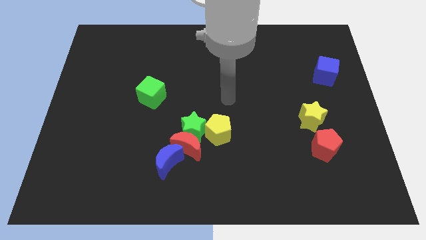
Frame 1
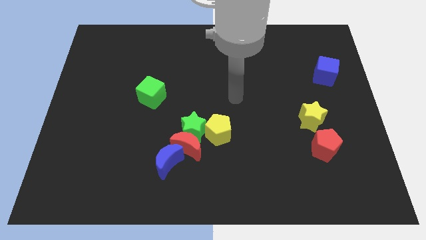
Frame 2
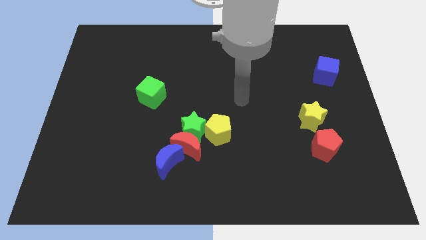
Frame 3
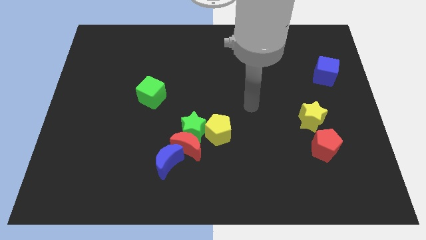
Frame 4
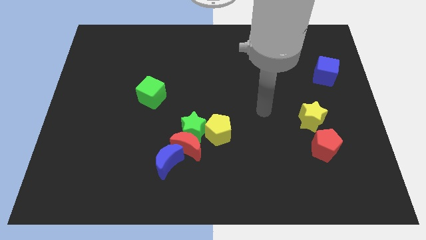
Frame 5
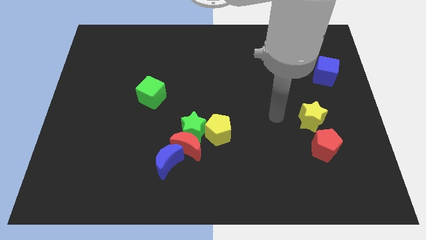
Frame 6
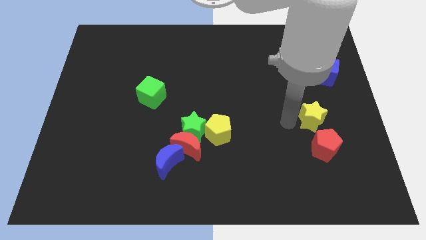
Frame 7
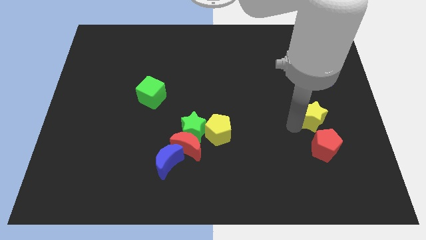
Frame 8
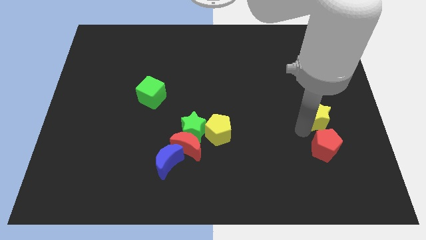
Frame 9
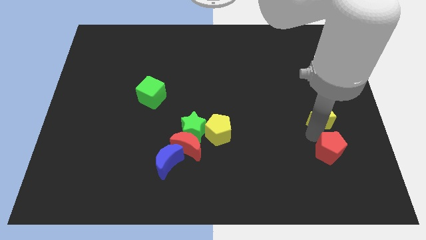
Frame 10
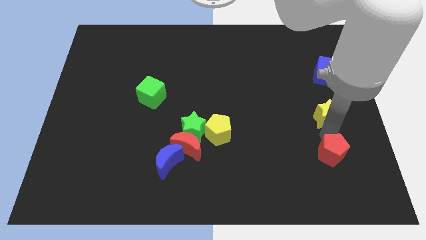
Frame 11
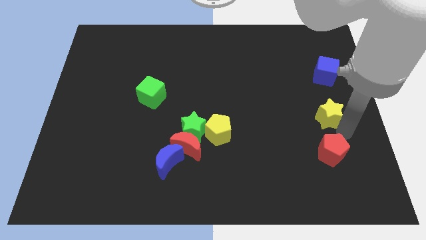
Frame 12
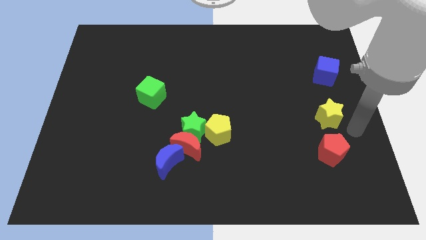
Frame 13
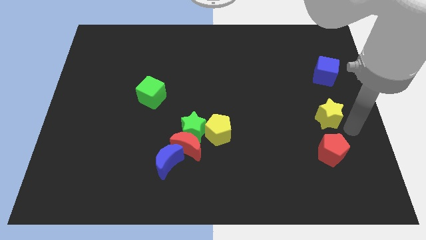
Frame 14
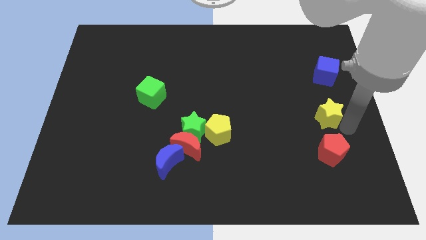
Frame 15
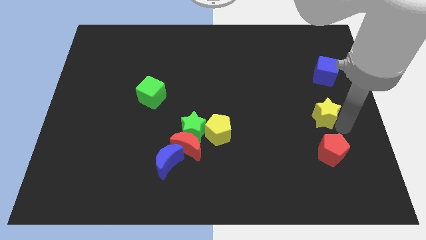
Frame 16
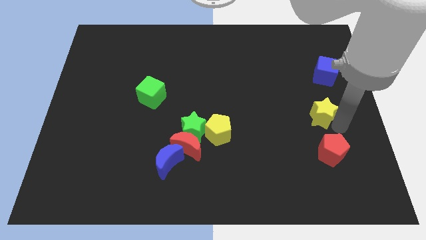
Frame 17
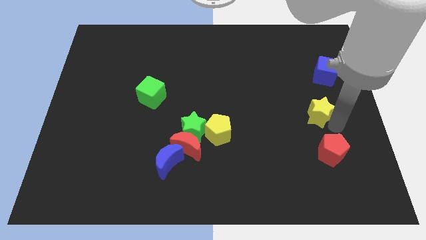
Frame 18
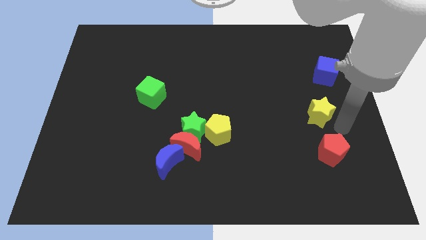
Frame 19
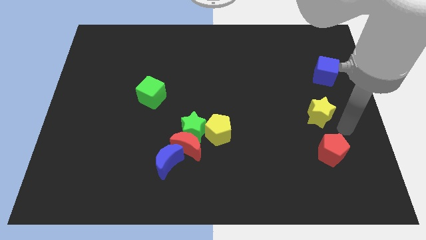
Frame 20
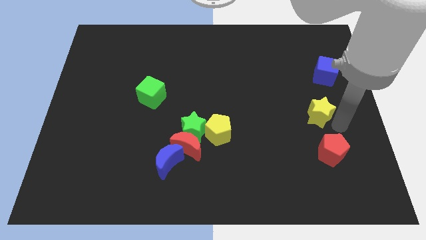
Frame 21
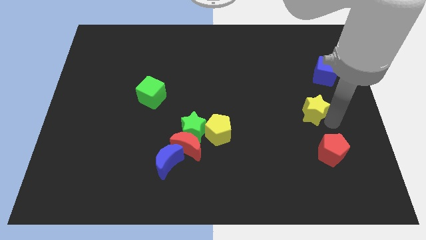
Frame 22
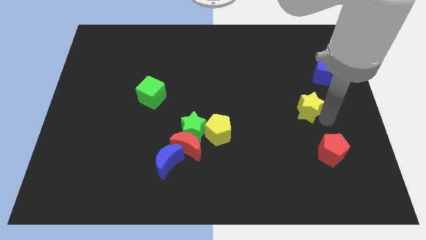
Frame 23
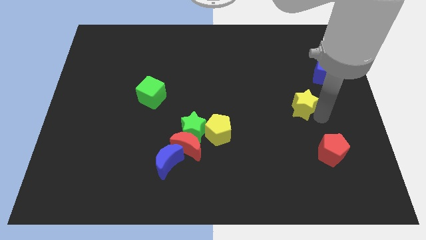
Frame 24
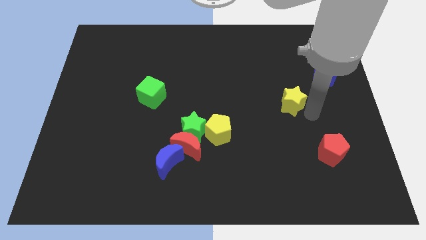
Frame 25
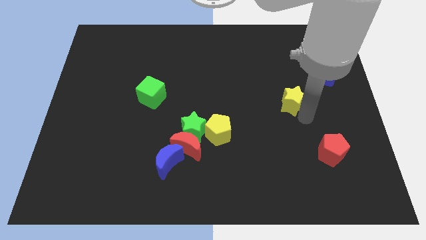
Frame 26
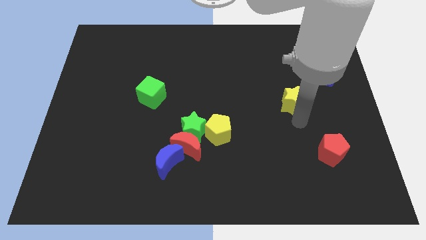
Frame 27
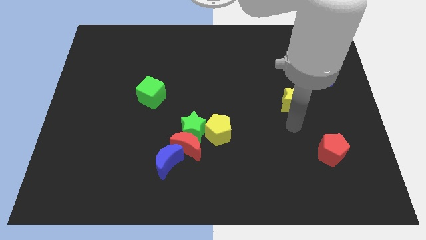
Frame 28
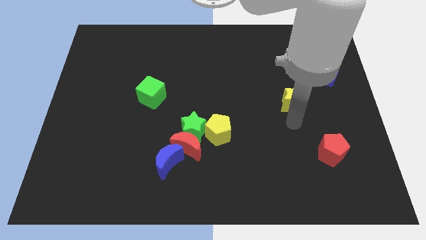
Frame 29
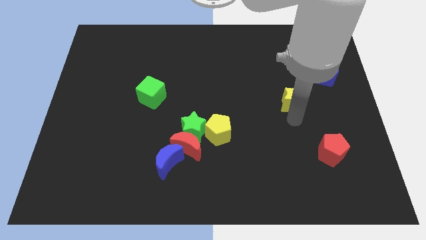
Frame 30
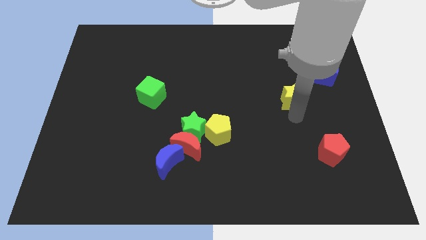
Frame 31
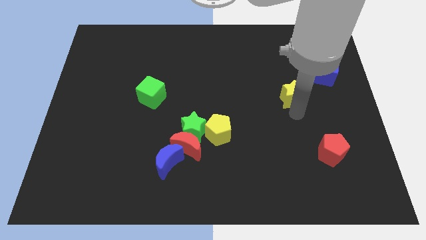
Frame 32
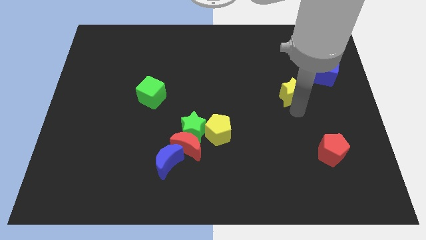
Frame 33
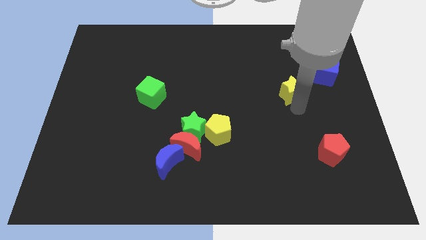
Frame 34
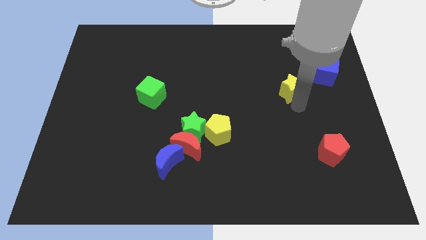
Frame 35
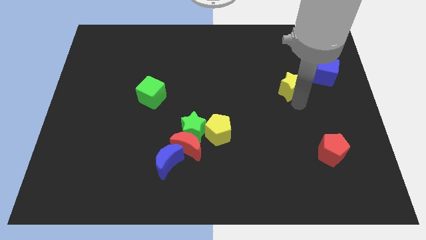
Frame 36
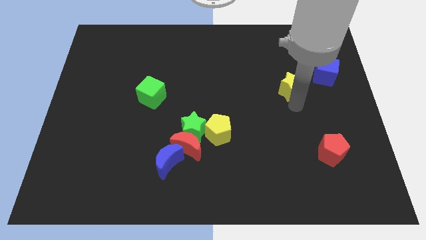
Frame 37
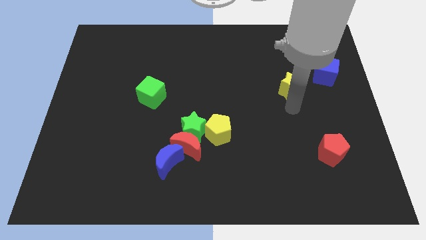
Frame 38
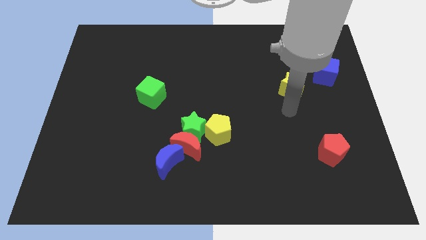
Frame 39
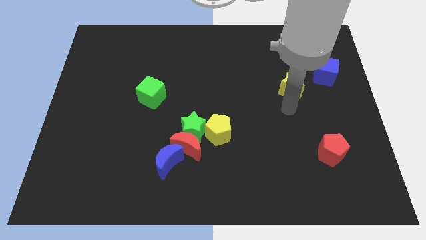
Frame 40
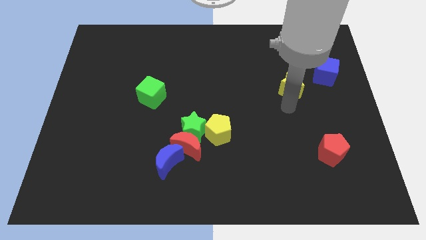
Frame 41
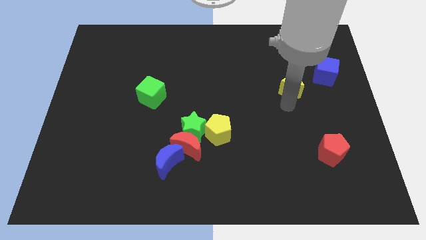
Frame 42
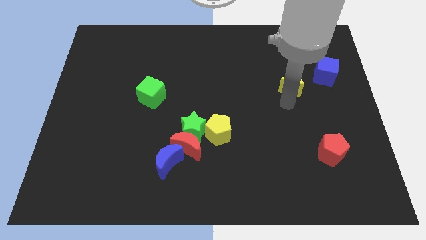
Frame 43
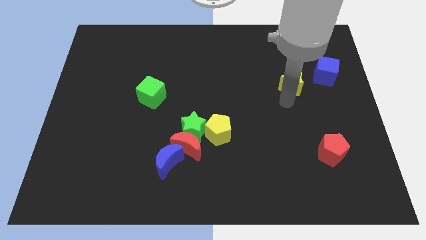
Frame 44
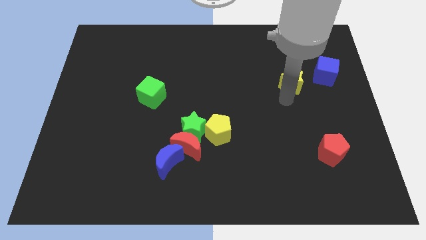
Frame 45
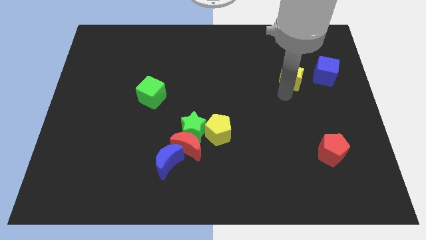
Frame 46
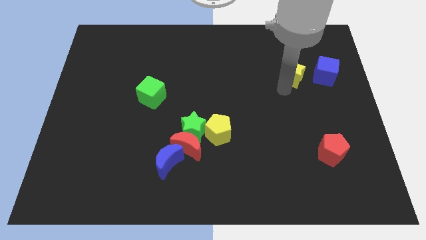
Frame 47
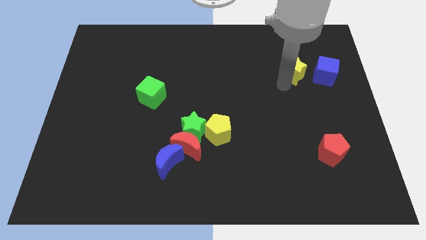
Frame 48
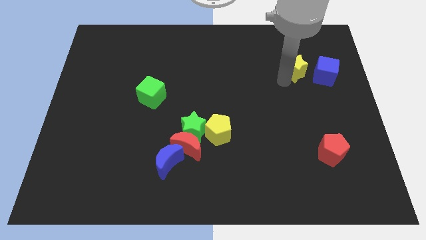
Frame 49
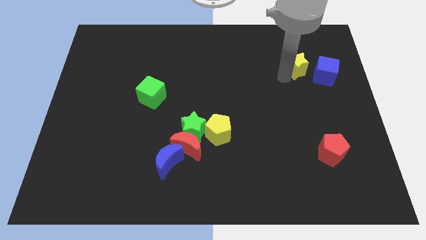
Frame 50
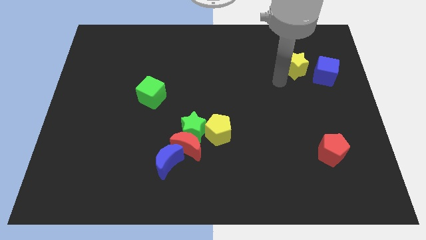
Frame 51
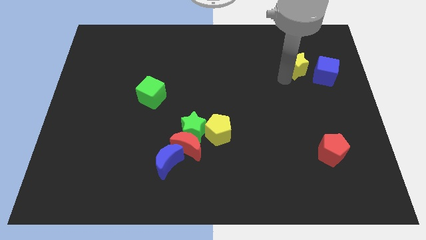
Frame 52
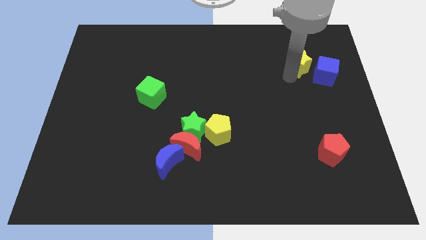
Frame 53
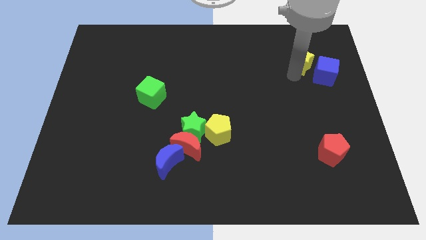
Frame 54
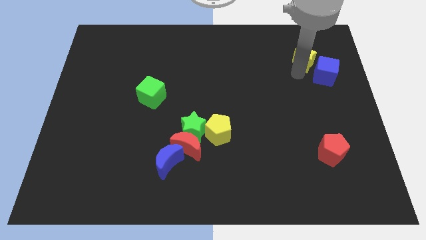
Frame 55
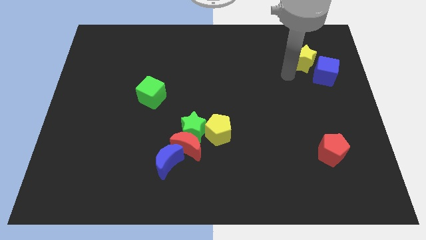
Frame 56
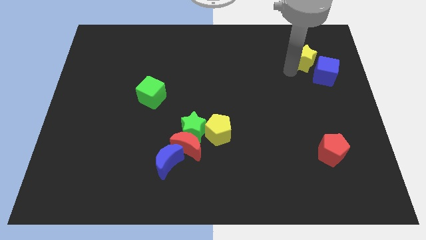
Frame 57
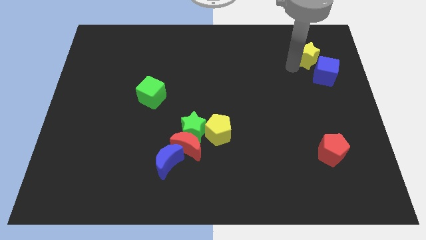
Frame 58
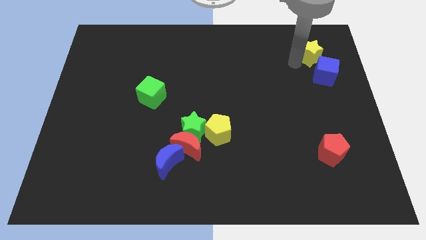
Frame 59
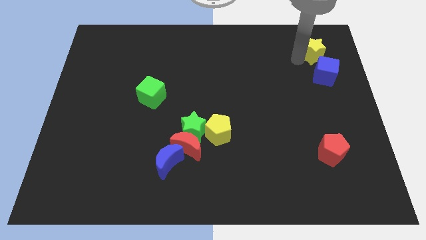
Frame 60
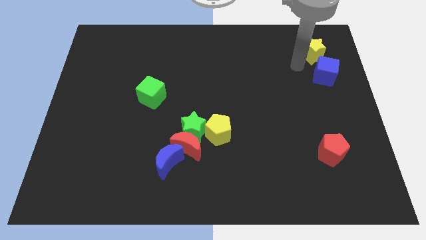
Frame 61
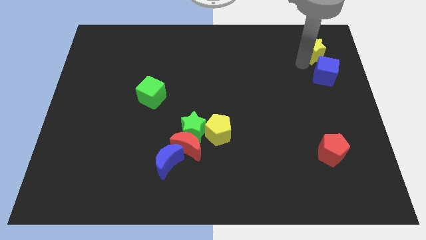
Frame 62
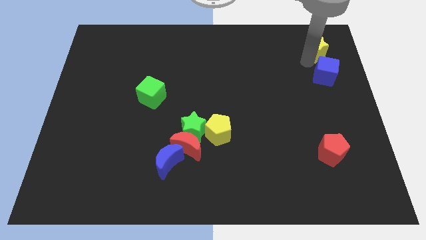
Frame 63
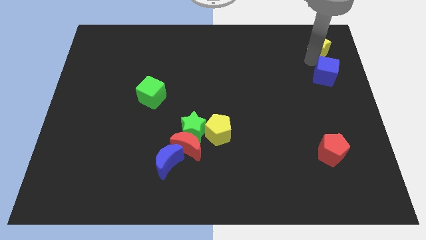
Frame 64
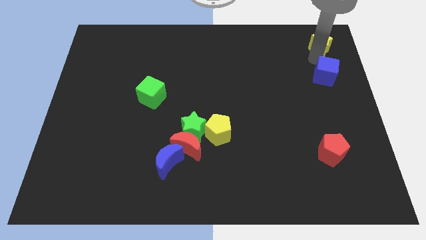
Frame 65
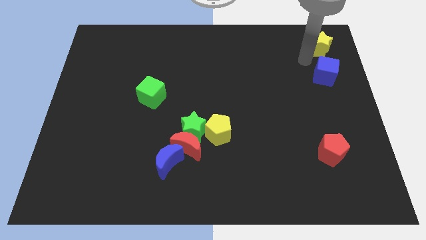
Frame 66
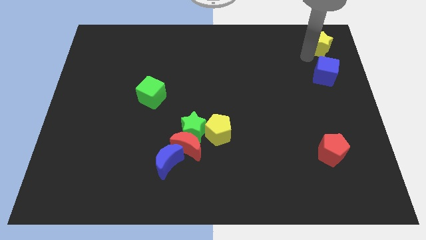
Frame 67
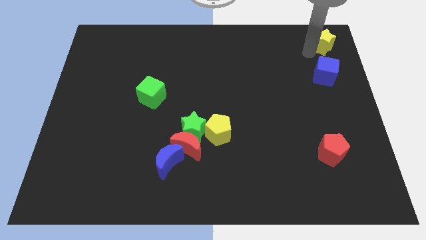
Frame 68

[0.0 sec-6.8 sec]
push the yellow star to the upper right corner
